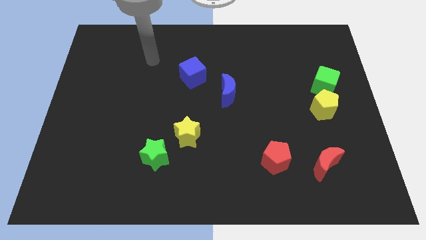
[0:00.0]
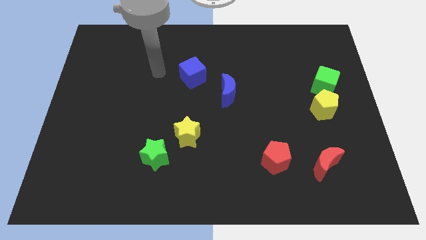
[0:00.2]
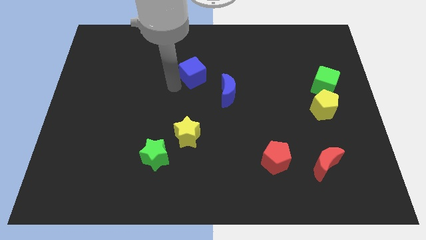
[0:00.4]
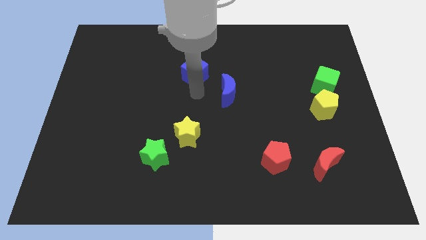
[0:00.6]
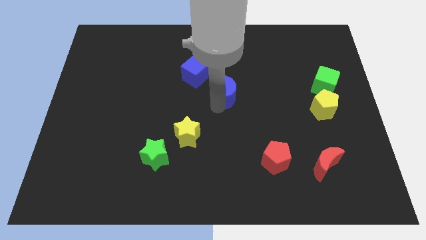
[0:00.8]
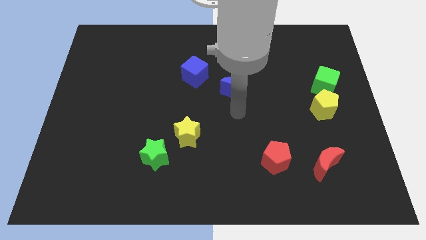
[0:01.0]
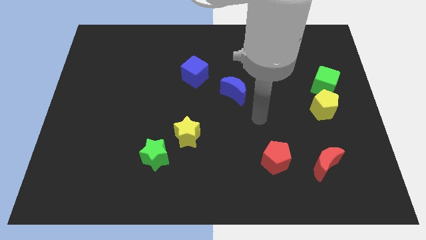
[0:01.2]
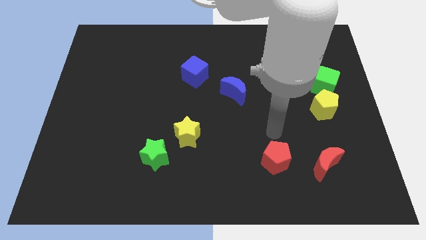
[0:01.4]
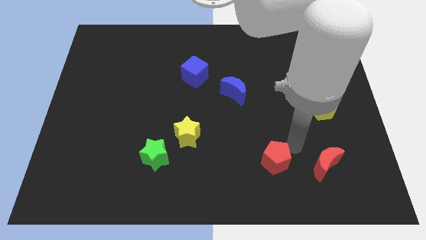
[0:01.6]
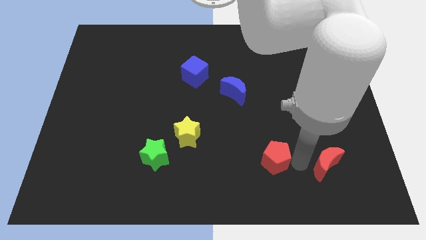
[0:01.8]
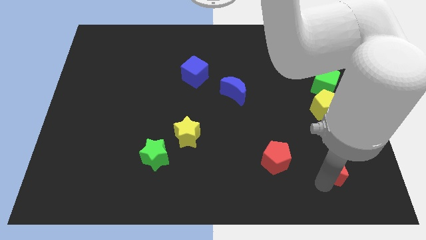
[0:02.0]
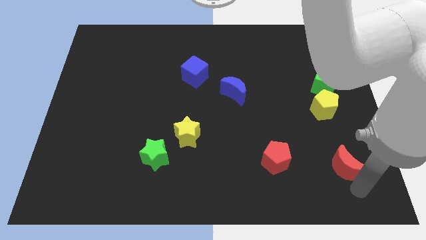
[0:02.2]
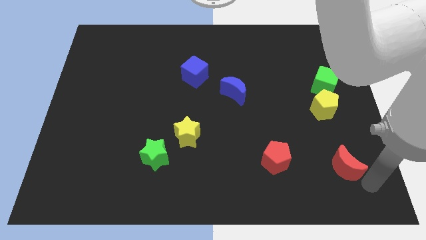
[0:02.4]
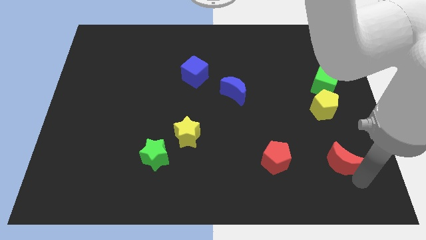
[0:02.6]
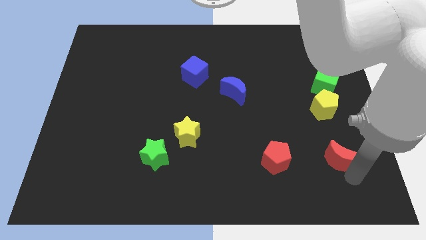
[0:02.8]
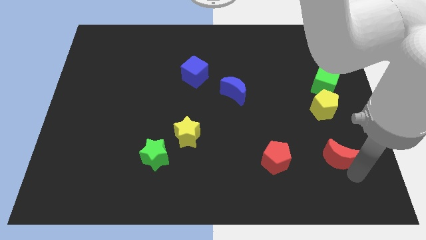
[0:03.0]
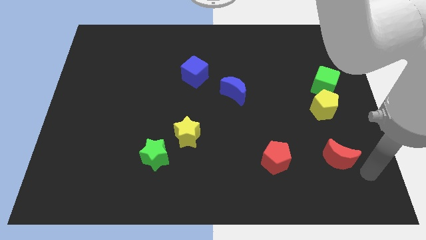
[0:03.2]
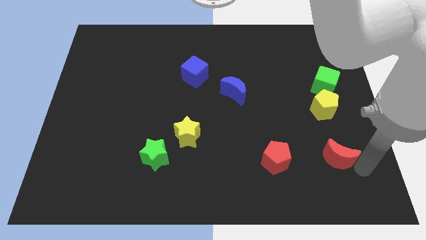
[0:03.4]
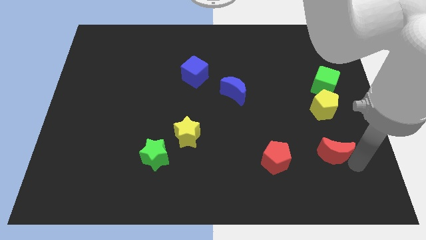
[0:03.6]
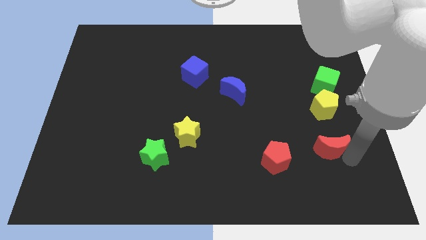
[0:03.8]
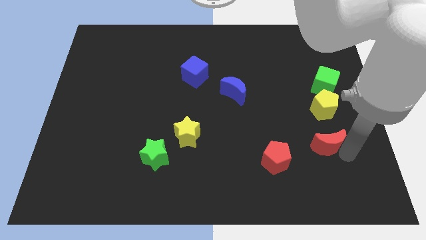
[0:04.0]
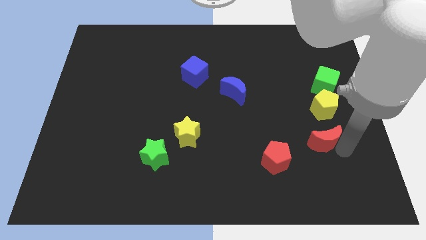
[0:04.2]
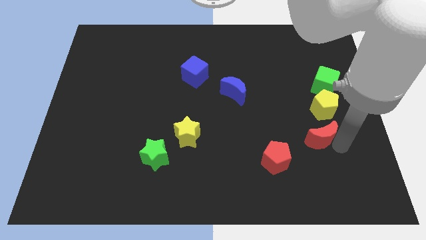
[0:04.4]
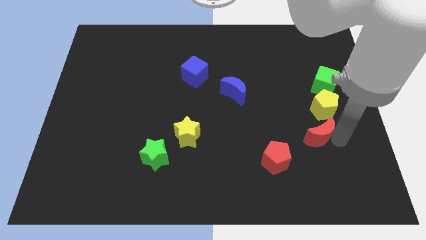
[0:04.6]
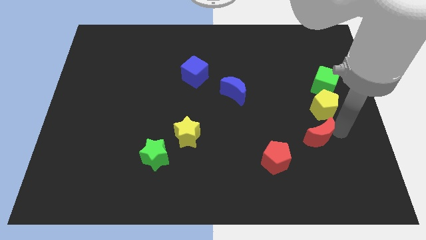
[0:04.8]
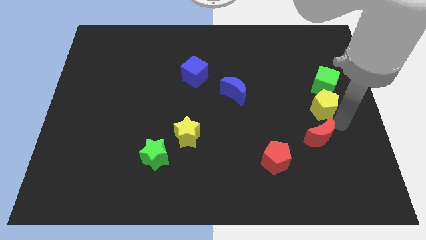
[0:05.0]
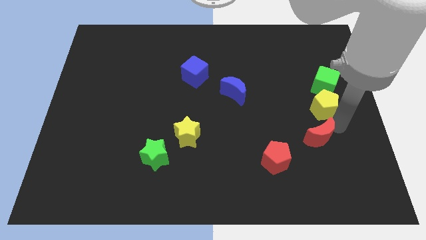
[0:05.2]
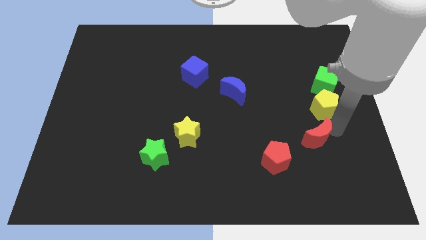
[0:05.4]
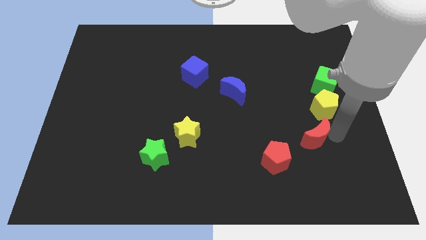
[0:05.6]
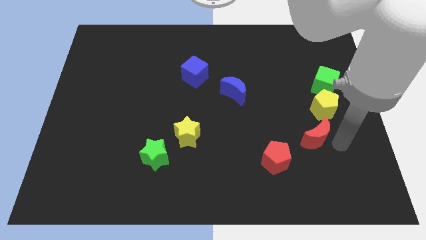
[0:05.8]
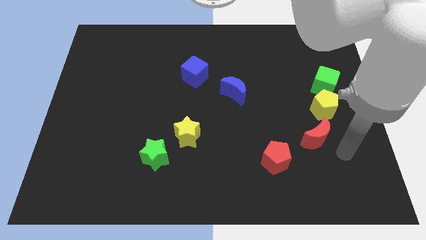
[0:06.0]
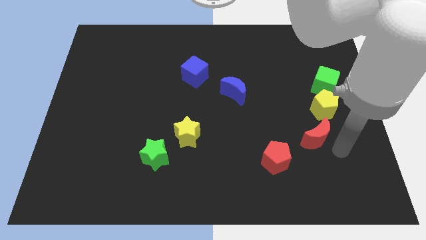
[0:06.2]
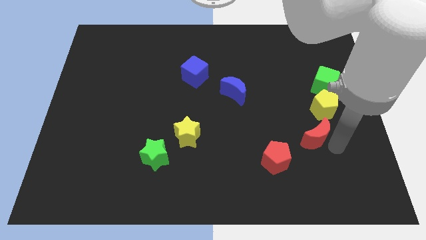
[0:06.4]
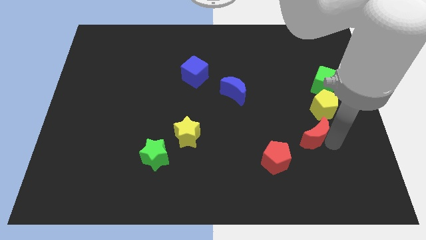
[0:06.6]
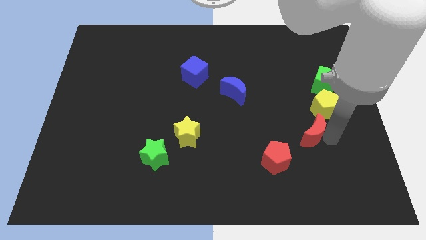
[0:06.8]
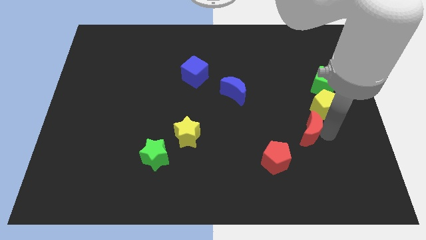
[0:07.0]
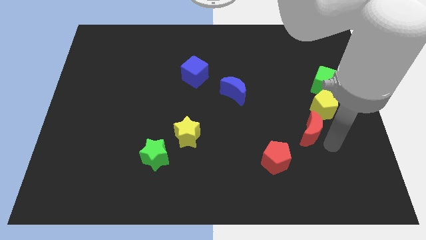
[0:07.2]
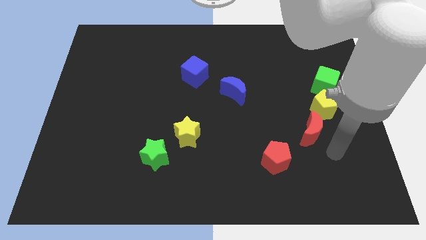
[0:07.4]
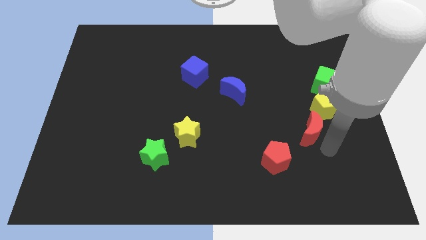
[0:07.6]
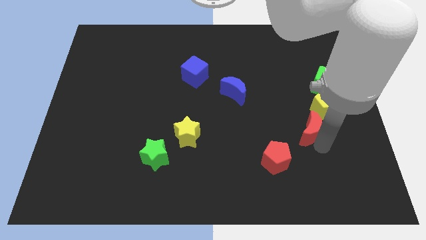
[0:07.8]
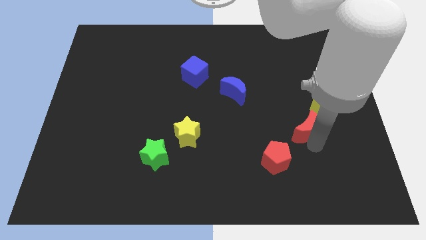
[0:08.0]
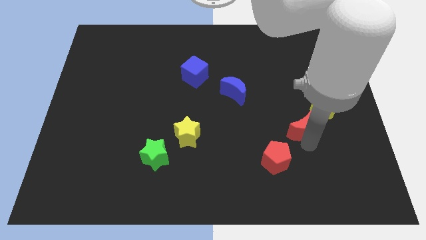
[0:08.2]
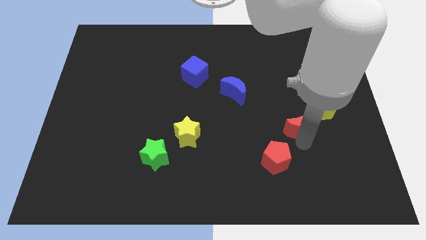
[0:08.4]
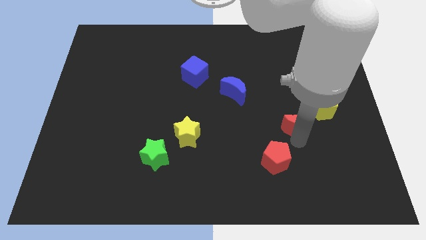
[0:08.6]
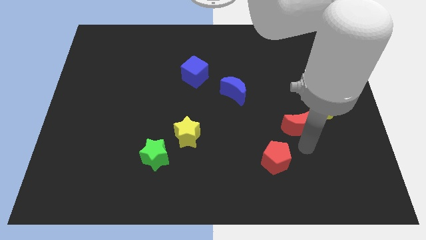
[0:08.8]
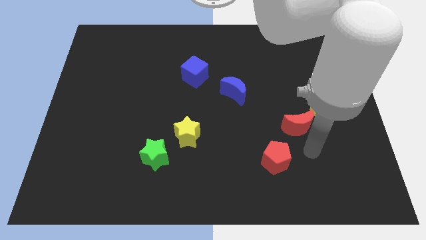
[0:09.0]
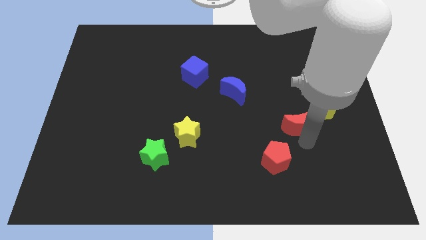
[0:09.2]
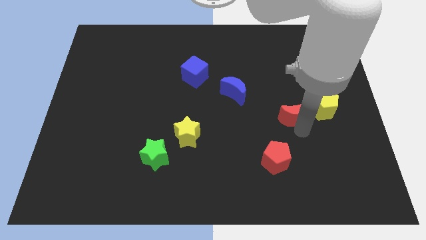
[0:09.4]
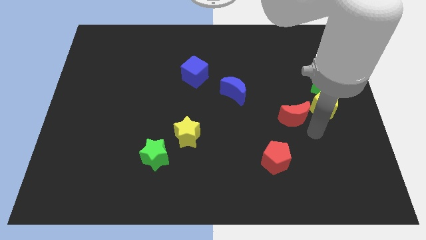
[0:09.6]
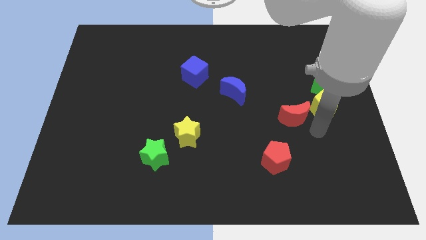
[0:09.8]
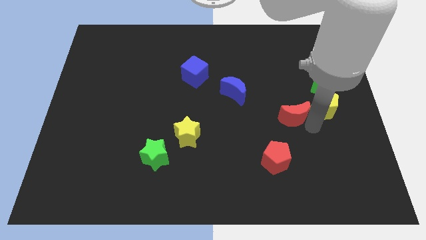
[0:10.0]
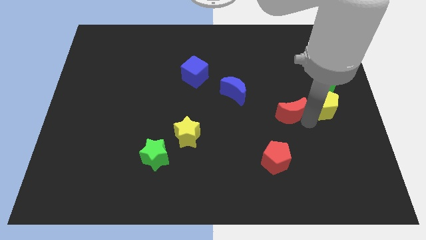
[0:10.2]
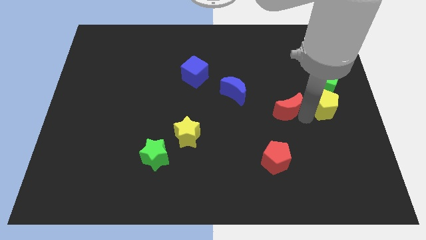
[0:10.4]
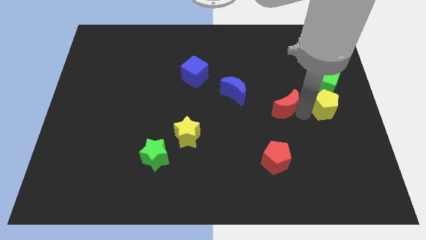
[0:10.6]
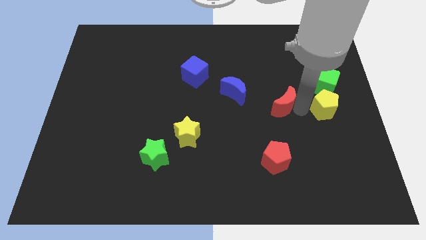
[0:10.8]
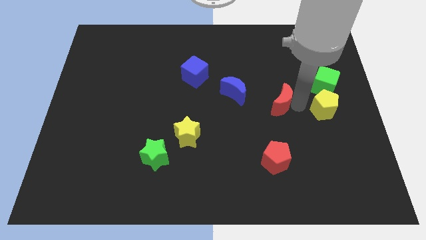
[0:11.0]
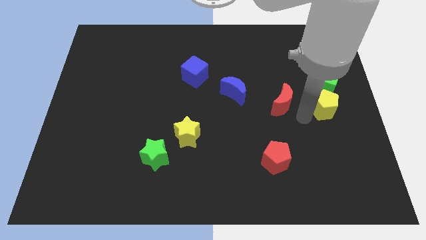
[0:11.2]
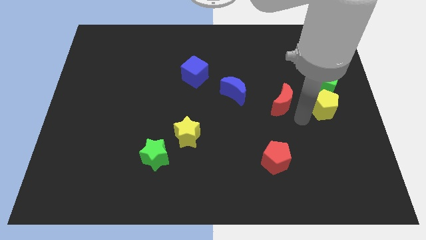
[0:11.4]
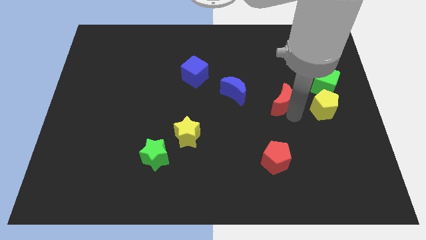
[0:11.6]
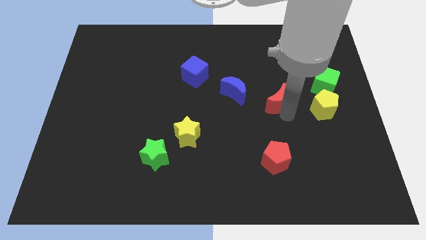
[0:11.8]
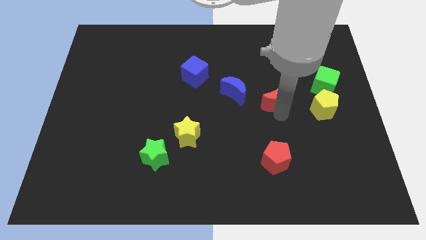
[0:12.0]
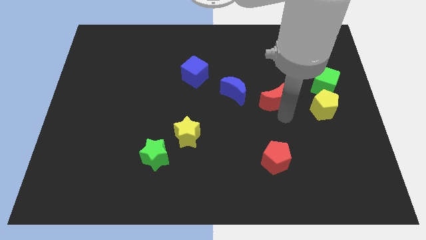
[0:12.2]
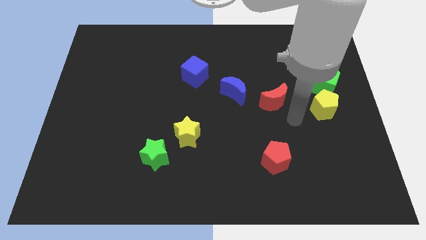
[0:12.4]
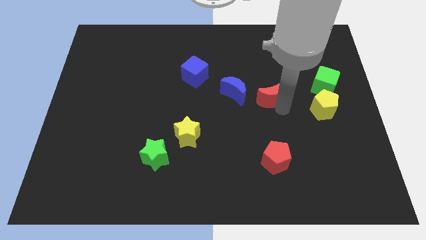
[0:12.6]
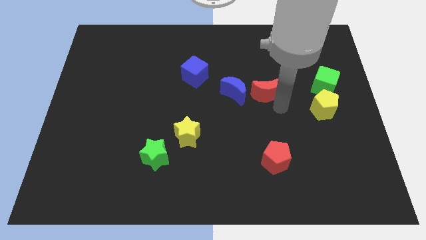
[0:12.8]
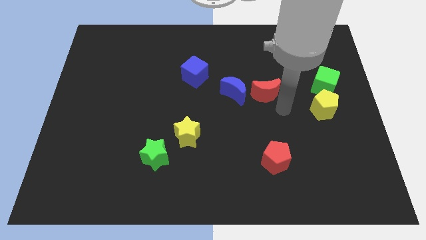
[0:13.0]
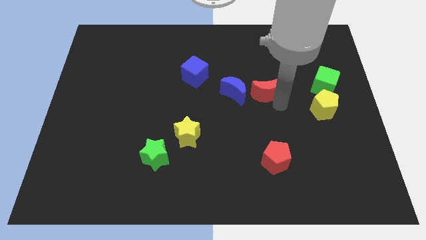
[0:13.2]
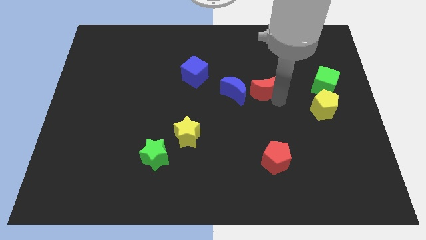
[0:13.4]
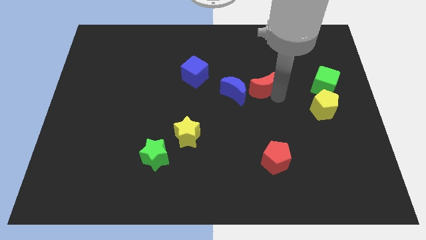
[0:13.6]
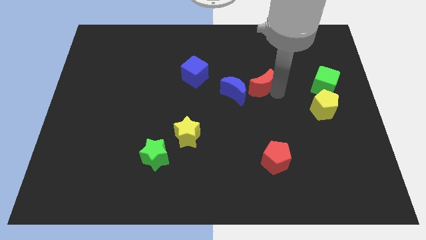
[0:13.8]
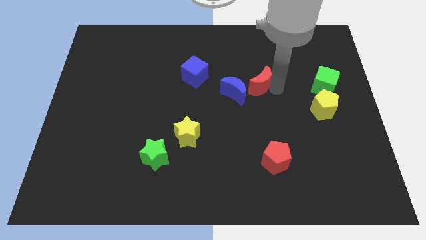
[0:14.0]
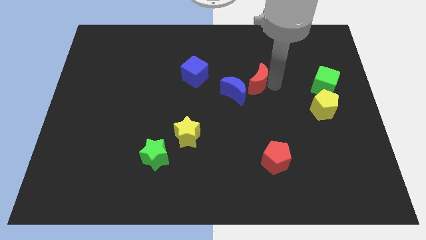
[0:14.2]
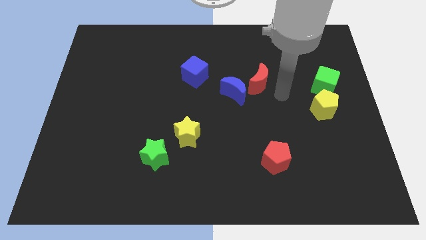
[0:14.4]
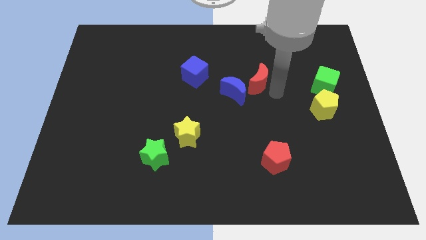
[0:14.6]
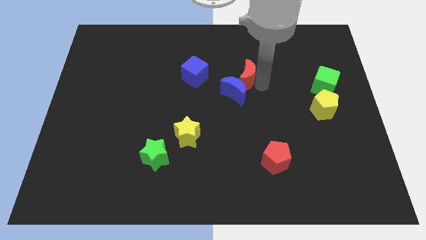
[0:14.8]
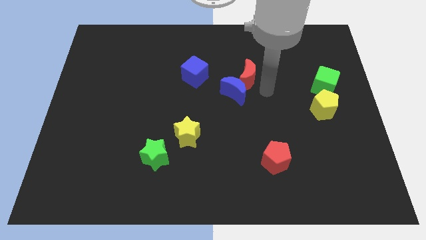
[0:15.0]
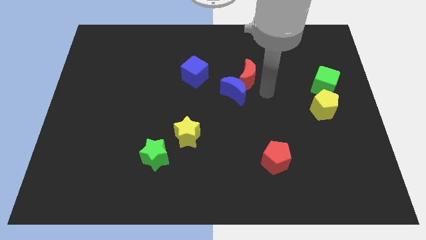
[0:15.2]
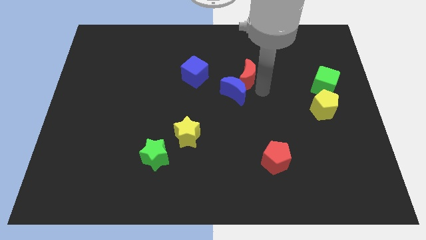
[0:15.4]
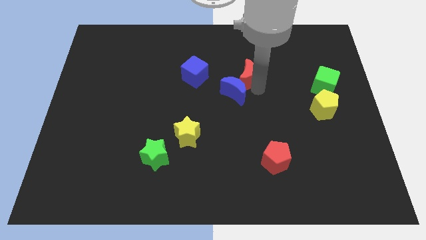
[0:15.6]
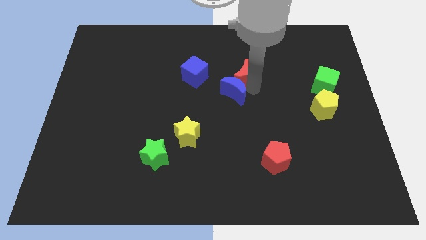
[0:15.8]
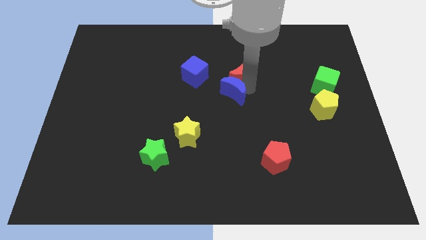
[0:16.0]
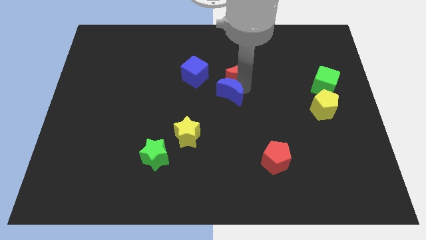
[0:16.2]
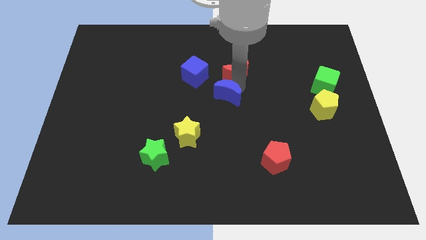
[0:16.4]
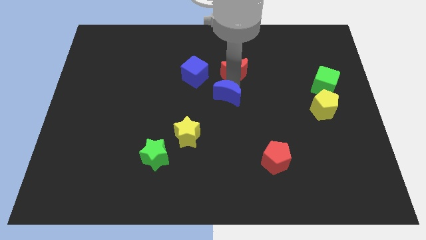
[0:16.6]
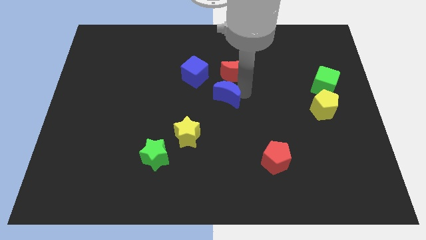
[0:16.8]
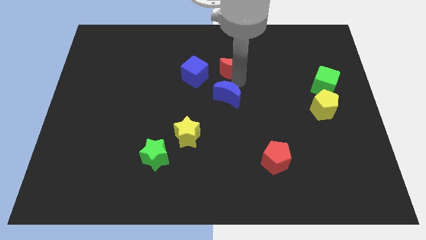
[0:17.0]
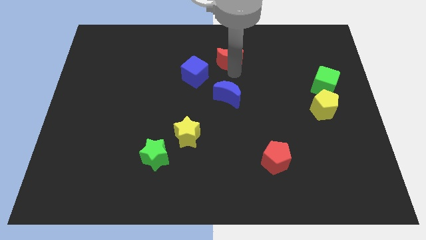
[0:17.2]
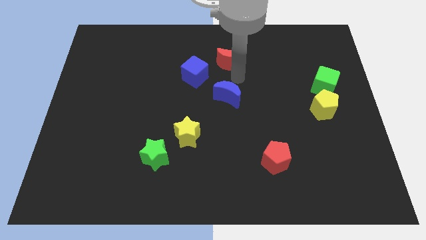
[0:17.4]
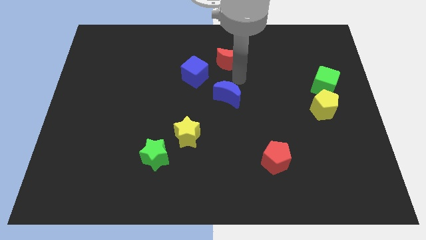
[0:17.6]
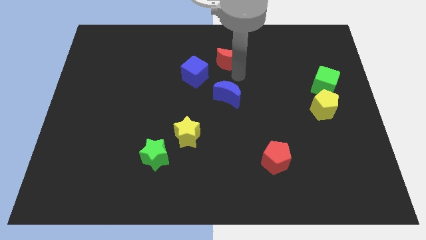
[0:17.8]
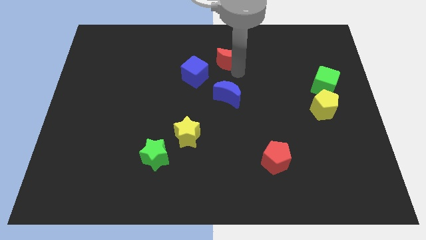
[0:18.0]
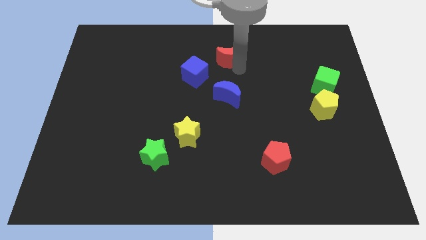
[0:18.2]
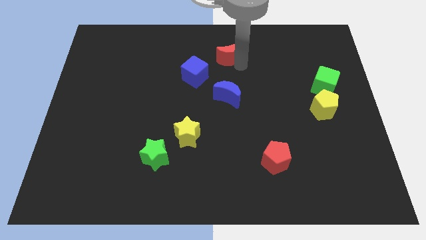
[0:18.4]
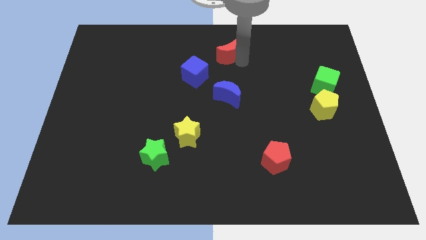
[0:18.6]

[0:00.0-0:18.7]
put the red moon to the towards your base
